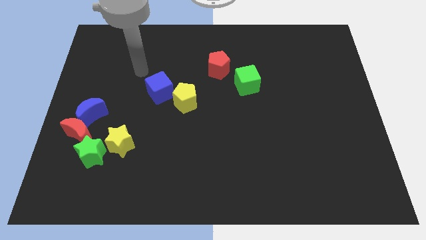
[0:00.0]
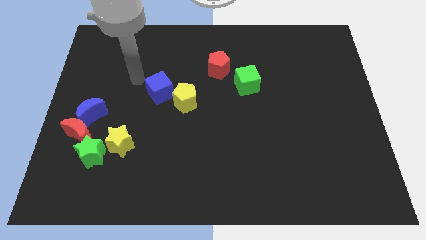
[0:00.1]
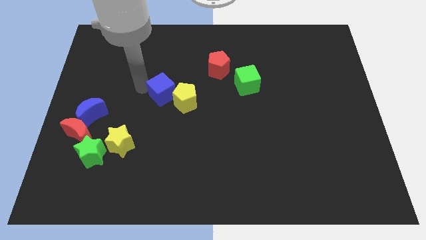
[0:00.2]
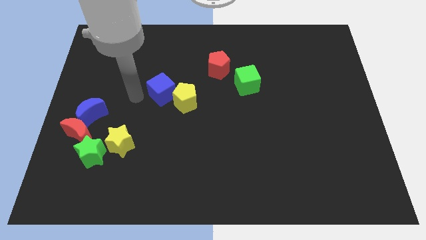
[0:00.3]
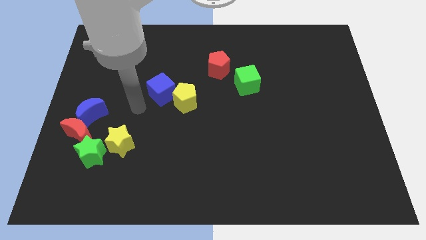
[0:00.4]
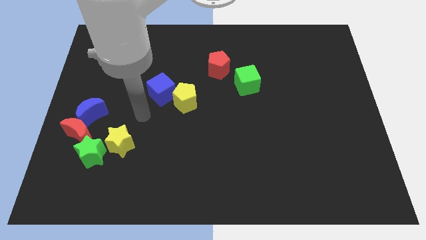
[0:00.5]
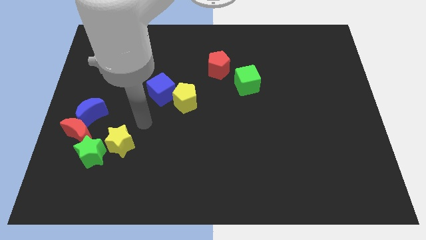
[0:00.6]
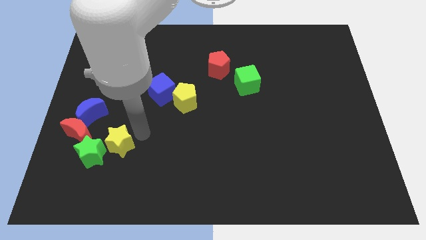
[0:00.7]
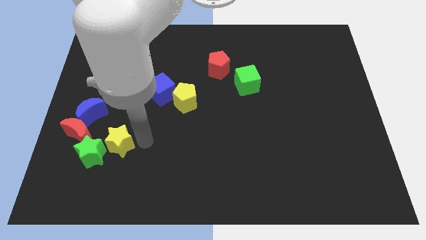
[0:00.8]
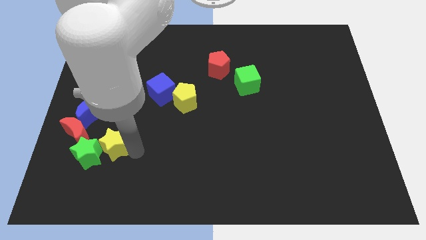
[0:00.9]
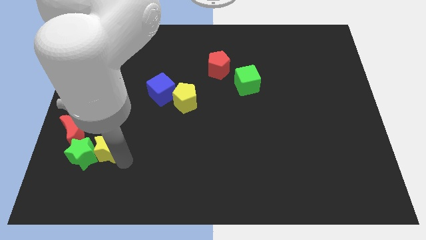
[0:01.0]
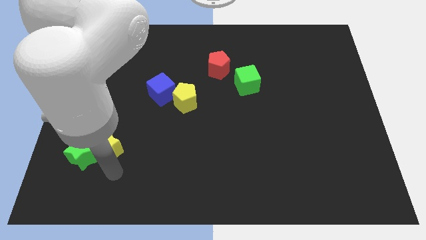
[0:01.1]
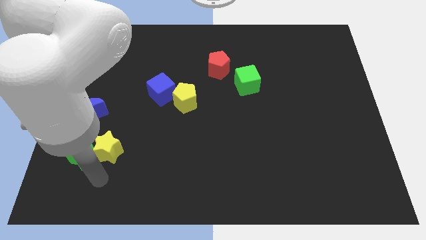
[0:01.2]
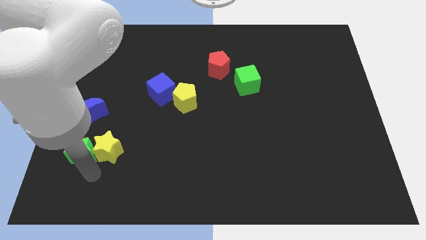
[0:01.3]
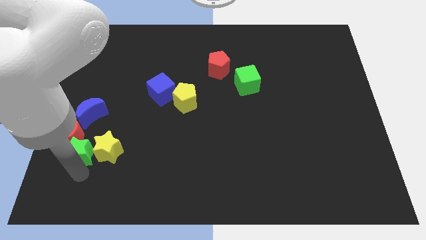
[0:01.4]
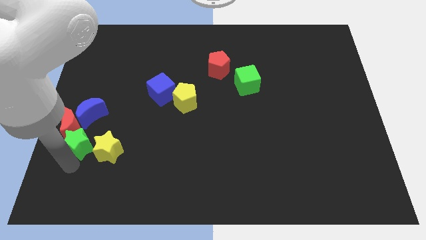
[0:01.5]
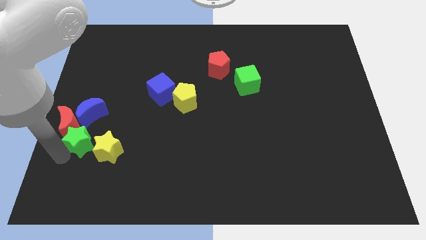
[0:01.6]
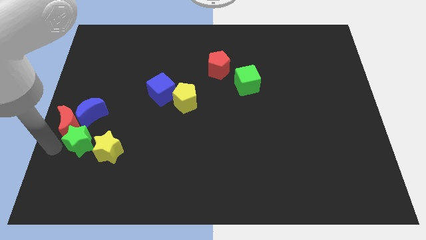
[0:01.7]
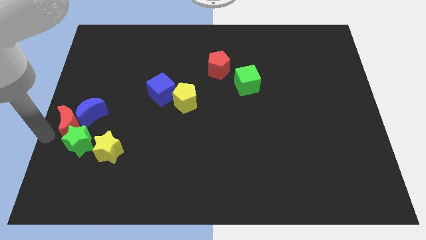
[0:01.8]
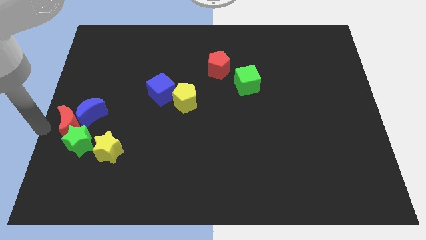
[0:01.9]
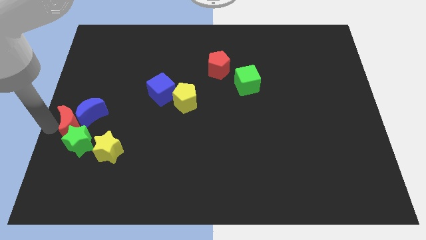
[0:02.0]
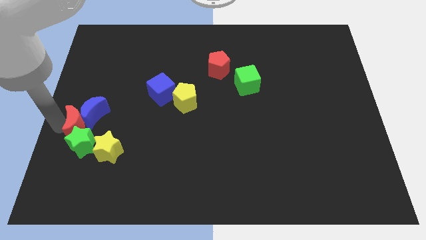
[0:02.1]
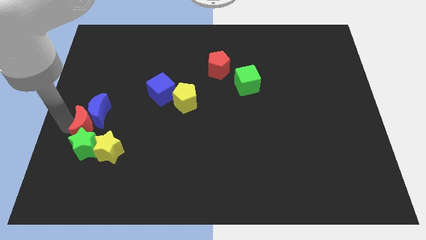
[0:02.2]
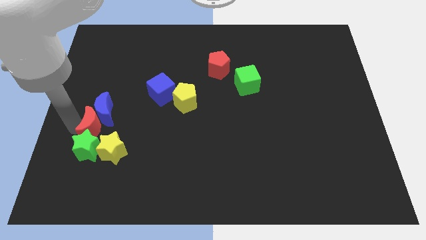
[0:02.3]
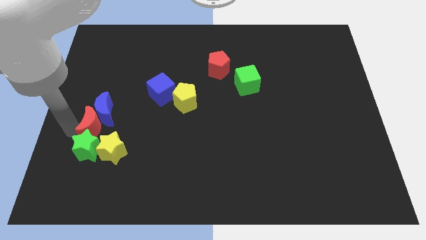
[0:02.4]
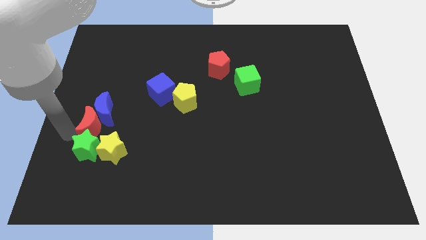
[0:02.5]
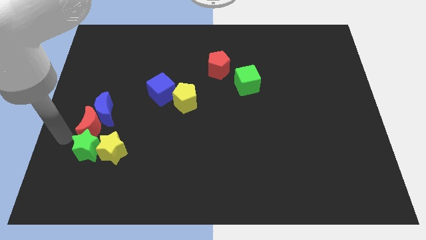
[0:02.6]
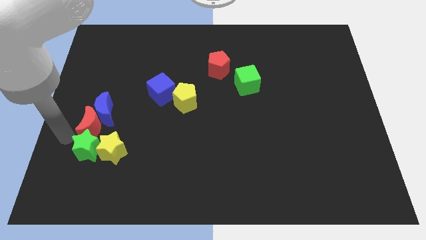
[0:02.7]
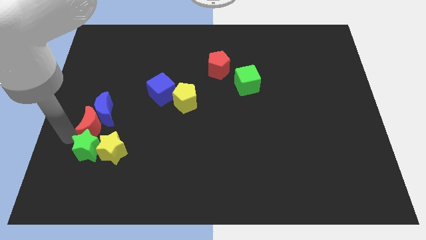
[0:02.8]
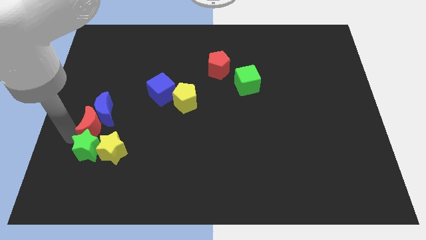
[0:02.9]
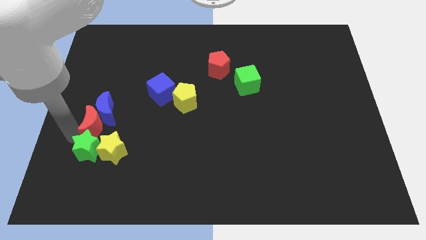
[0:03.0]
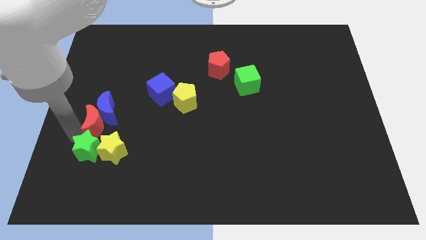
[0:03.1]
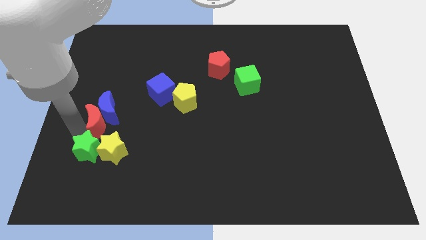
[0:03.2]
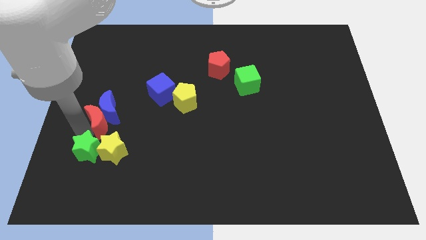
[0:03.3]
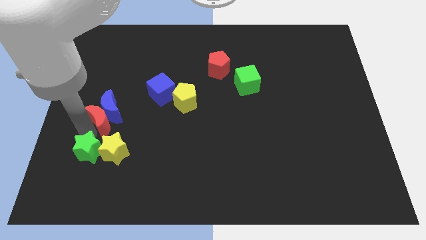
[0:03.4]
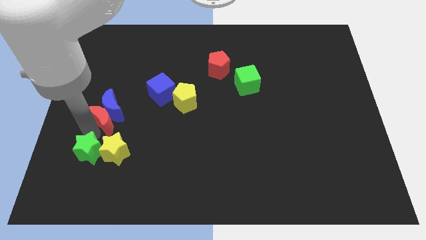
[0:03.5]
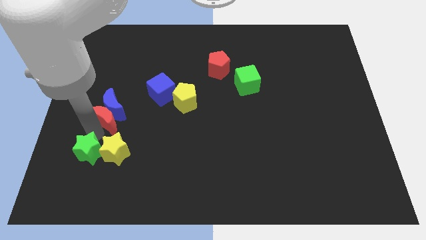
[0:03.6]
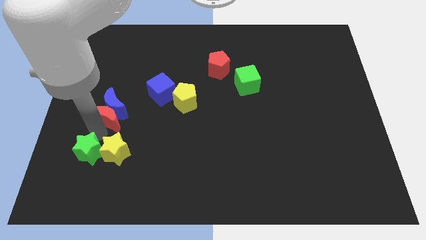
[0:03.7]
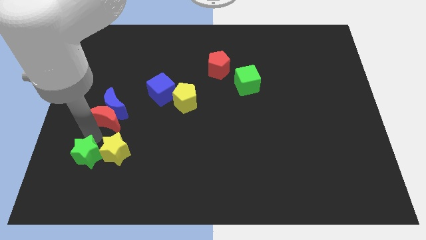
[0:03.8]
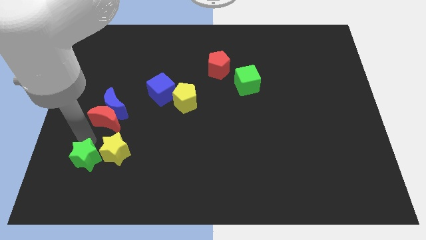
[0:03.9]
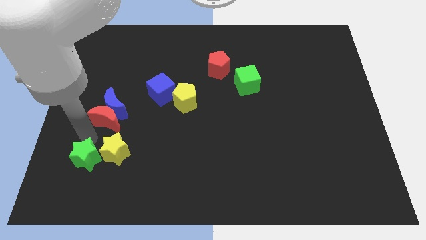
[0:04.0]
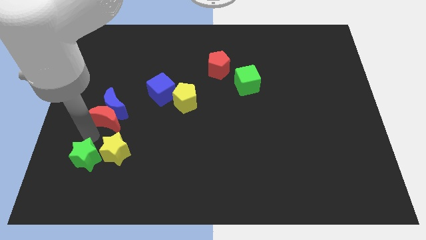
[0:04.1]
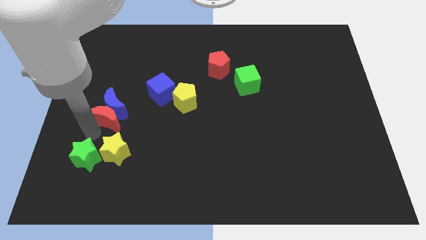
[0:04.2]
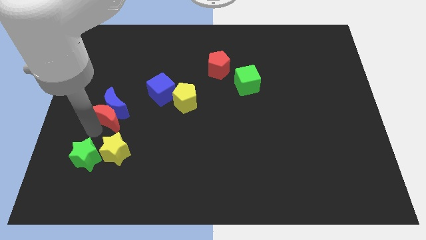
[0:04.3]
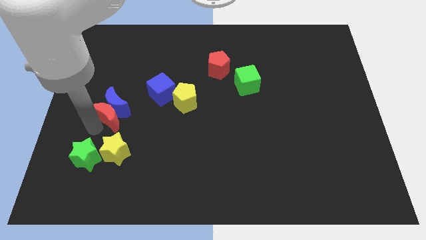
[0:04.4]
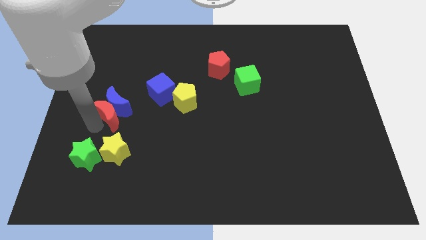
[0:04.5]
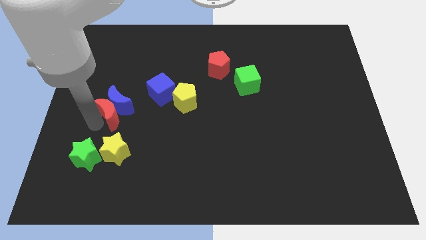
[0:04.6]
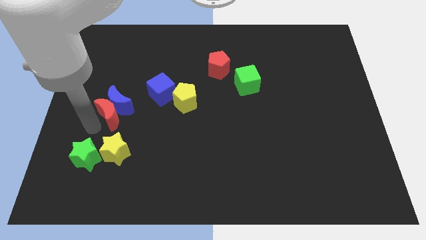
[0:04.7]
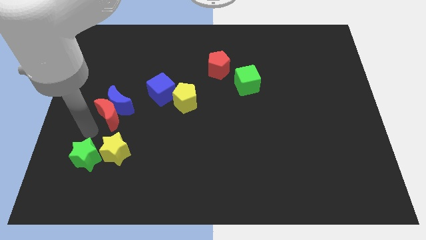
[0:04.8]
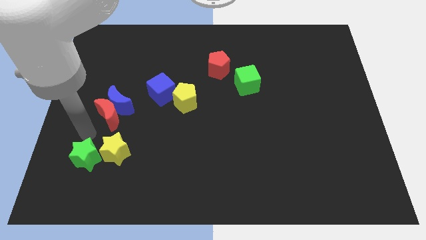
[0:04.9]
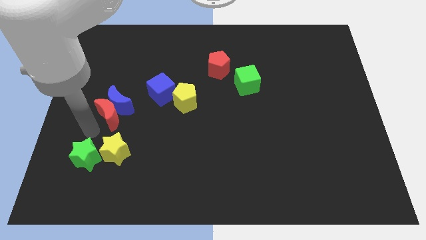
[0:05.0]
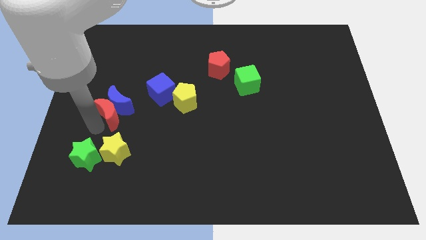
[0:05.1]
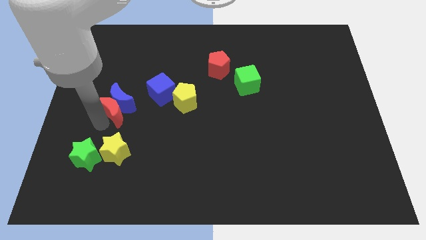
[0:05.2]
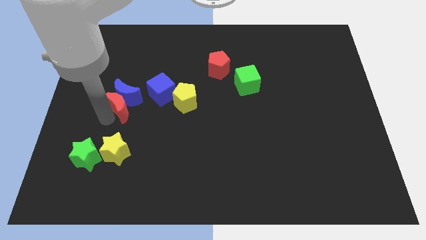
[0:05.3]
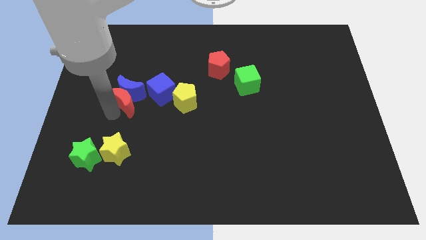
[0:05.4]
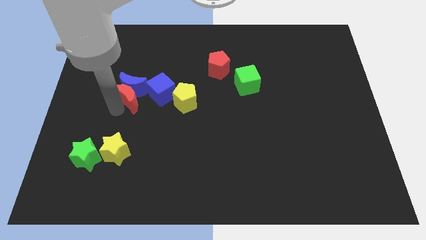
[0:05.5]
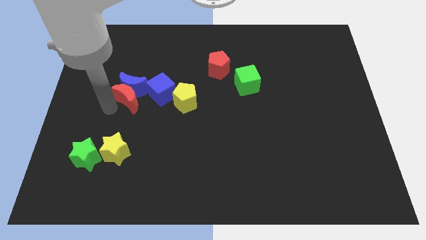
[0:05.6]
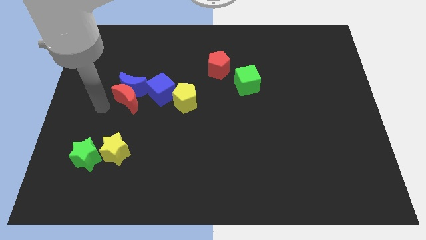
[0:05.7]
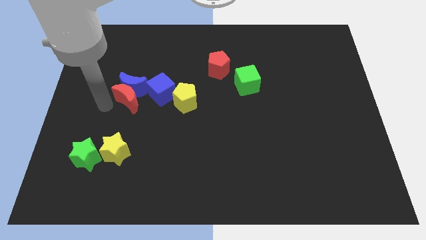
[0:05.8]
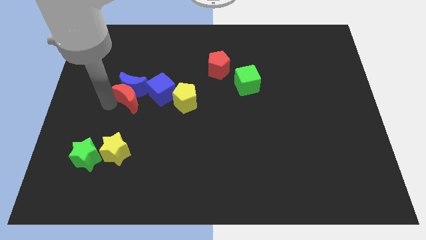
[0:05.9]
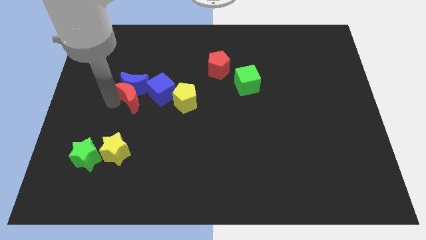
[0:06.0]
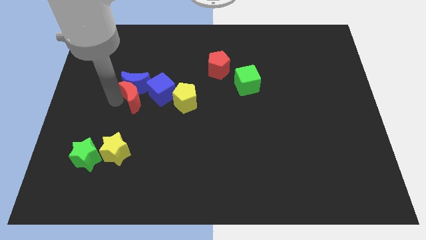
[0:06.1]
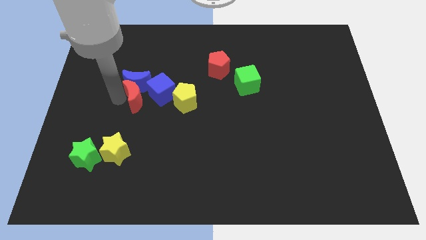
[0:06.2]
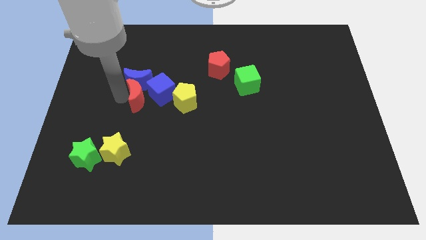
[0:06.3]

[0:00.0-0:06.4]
push the red moon close to the blue cube

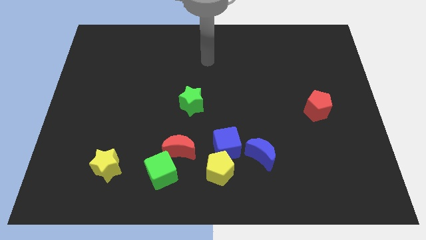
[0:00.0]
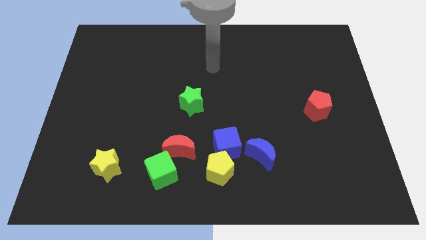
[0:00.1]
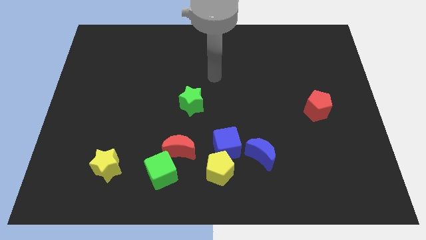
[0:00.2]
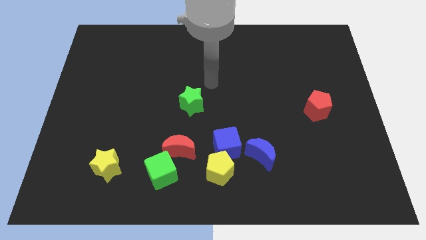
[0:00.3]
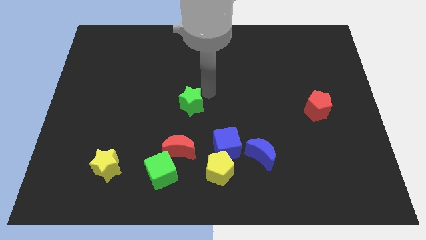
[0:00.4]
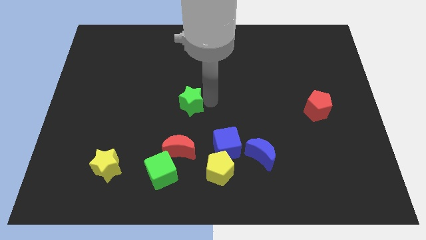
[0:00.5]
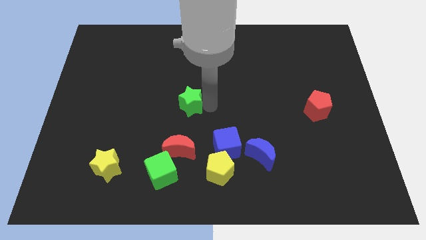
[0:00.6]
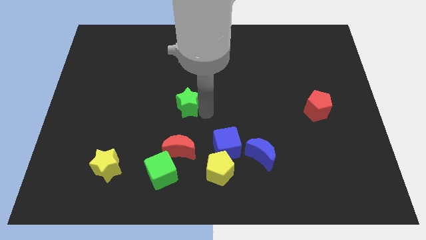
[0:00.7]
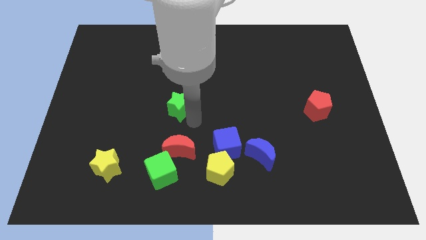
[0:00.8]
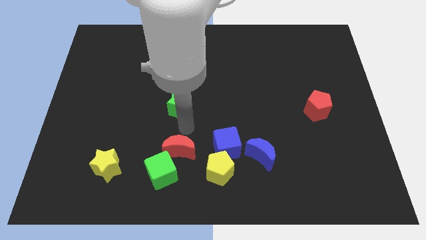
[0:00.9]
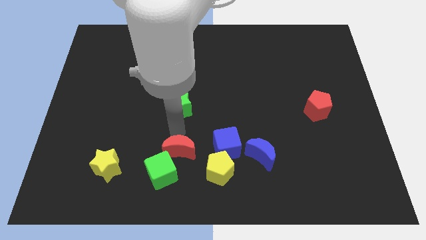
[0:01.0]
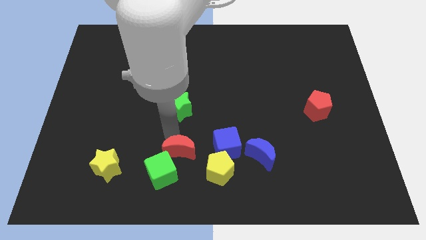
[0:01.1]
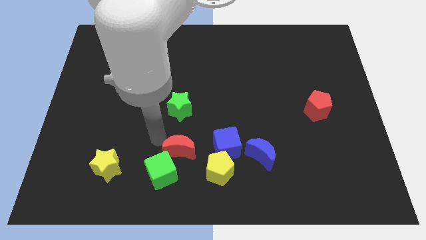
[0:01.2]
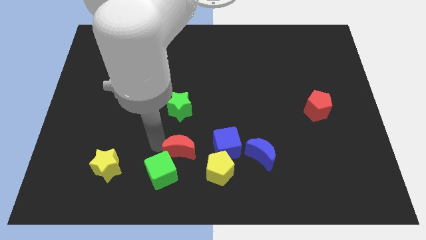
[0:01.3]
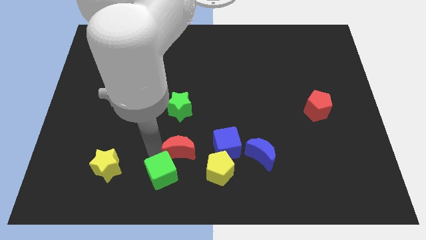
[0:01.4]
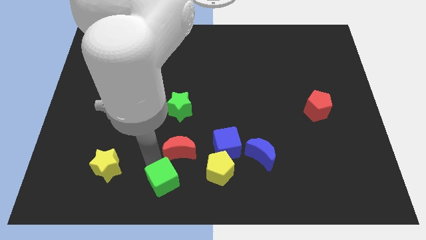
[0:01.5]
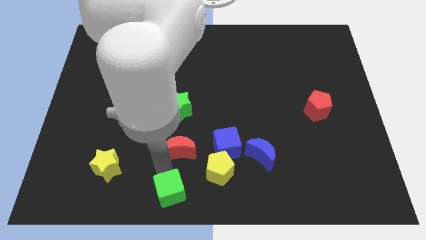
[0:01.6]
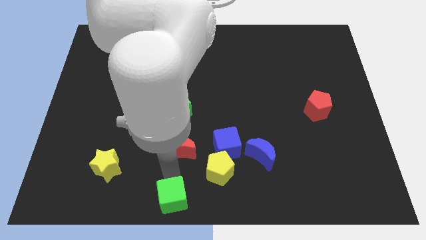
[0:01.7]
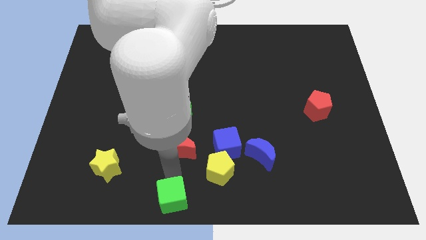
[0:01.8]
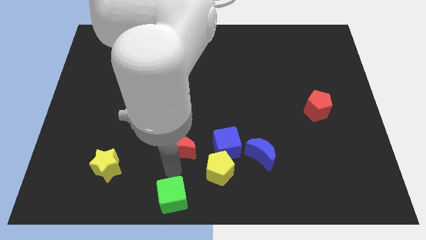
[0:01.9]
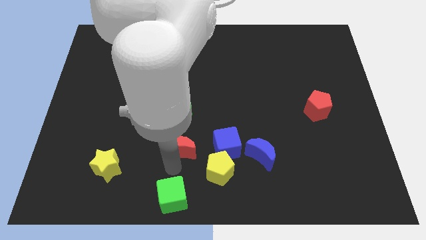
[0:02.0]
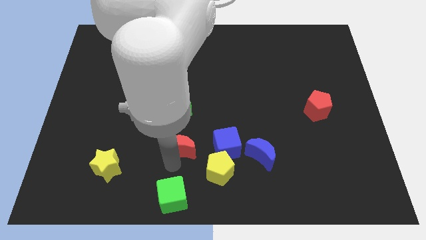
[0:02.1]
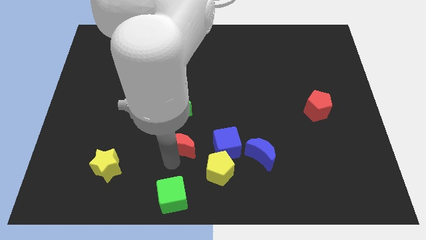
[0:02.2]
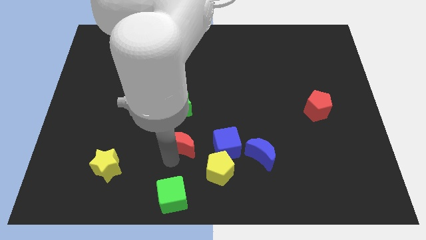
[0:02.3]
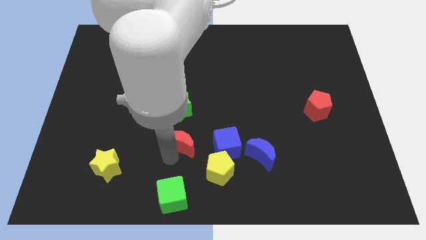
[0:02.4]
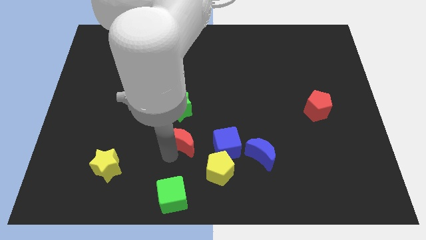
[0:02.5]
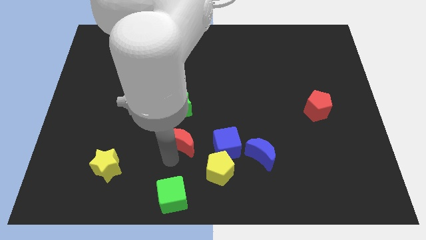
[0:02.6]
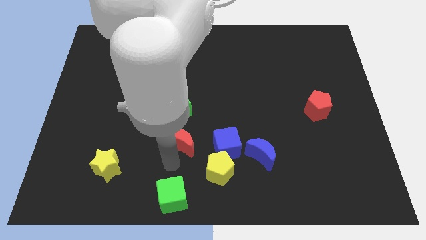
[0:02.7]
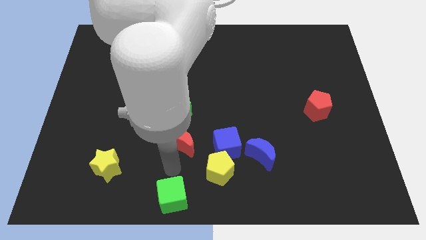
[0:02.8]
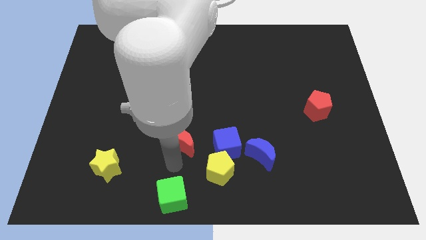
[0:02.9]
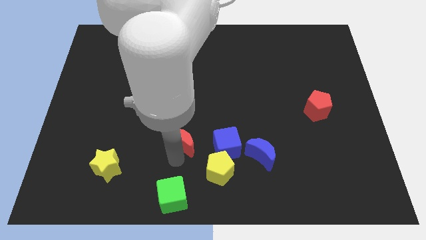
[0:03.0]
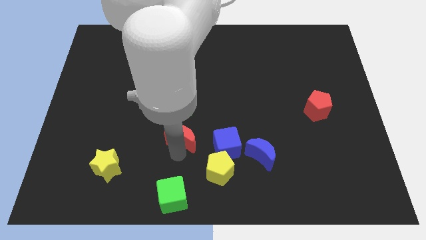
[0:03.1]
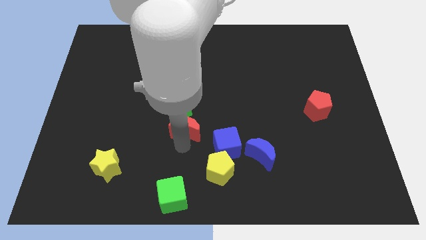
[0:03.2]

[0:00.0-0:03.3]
push the red moon to the green star
